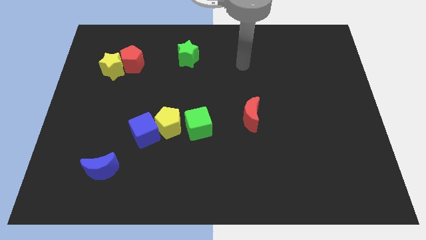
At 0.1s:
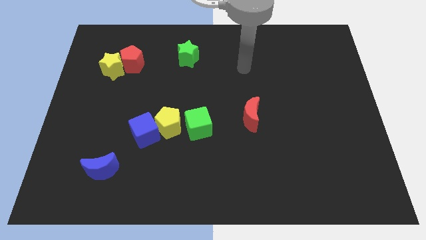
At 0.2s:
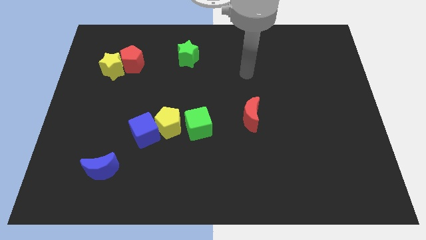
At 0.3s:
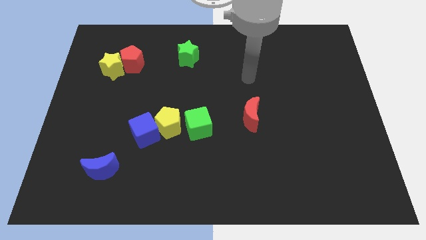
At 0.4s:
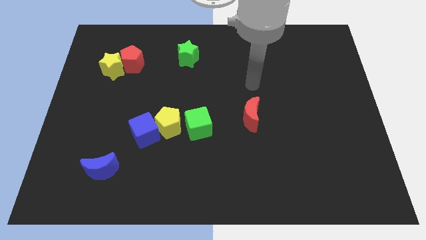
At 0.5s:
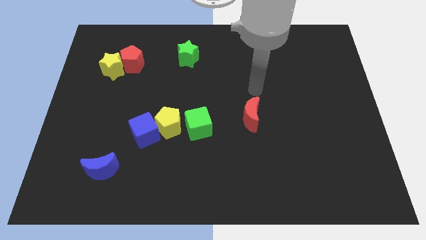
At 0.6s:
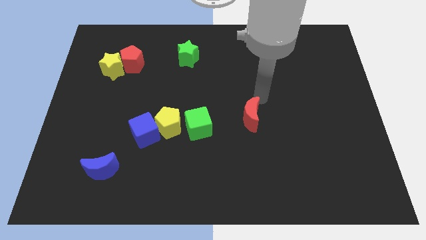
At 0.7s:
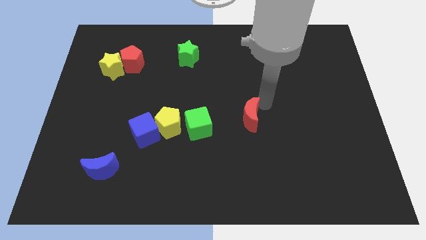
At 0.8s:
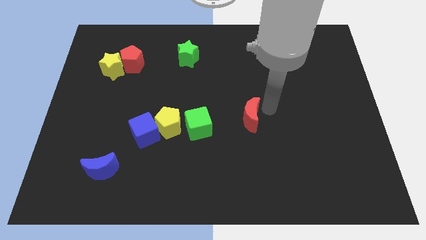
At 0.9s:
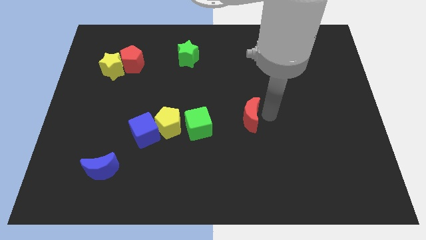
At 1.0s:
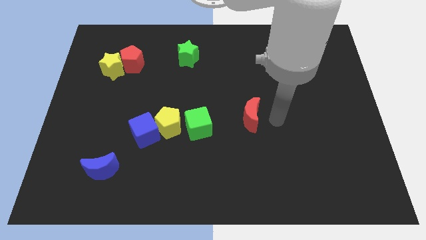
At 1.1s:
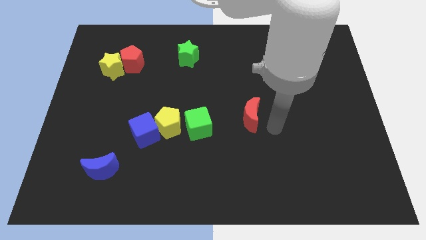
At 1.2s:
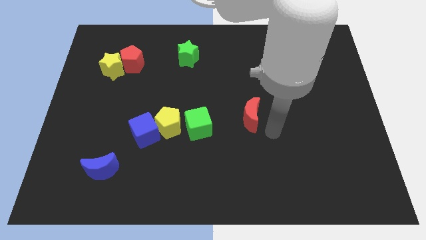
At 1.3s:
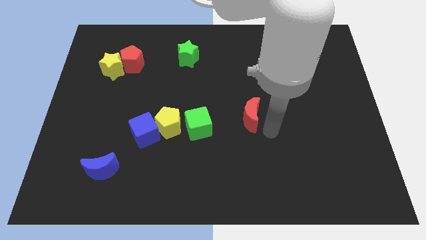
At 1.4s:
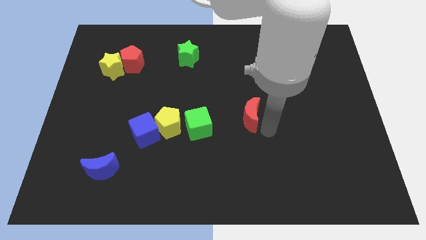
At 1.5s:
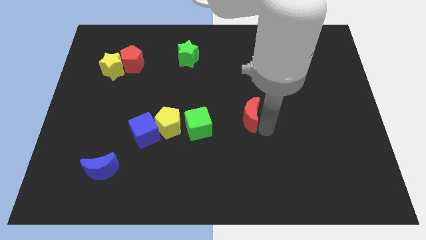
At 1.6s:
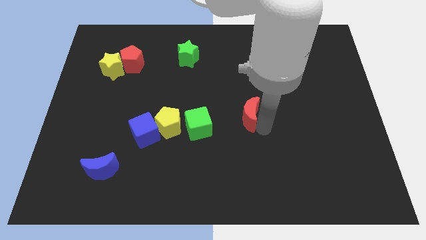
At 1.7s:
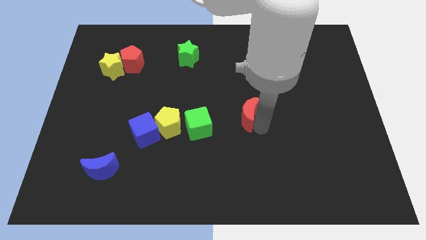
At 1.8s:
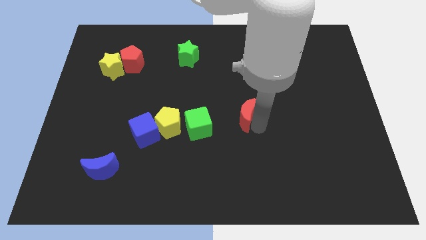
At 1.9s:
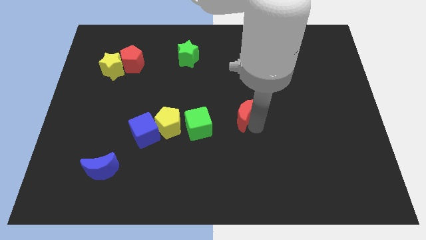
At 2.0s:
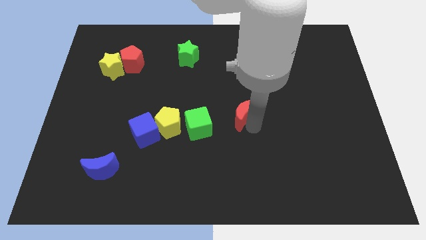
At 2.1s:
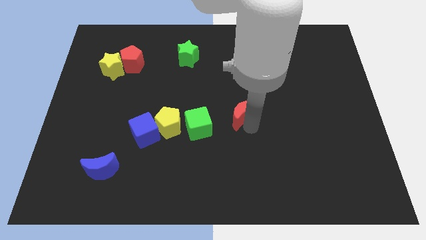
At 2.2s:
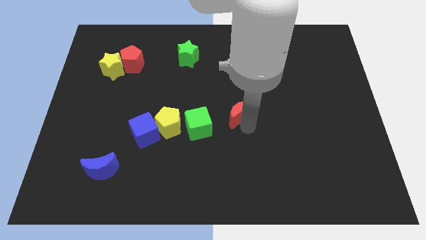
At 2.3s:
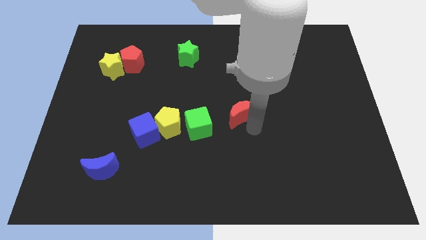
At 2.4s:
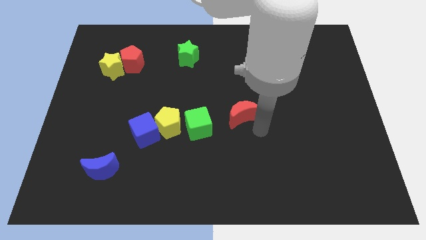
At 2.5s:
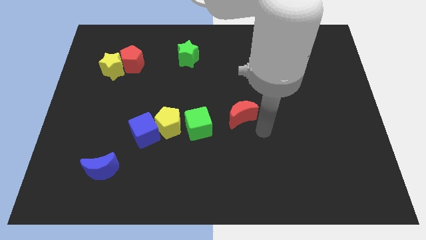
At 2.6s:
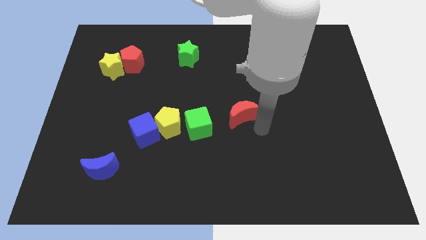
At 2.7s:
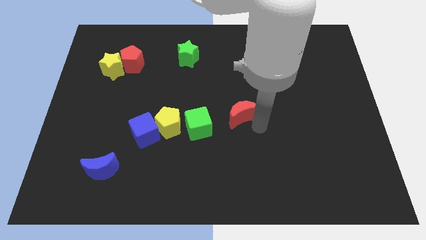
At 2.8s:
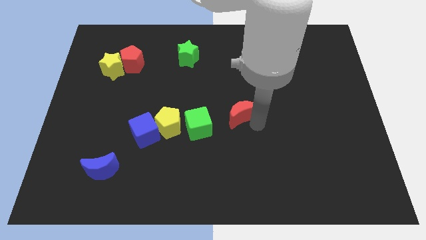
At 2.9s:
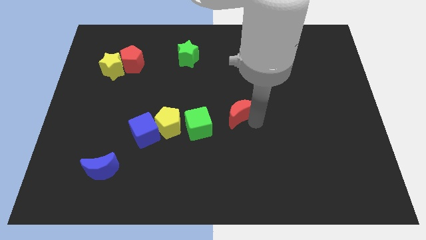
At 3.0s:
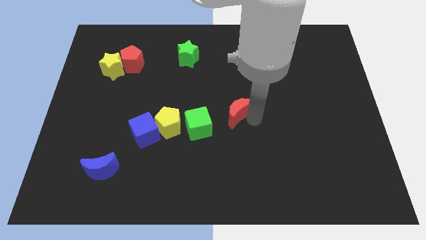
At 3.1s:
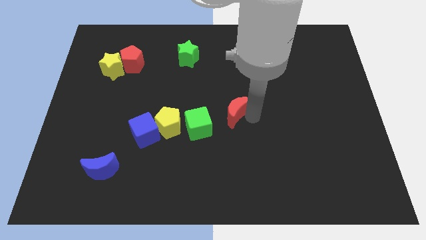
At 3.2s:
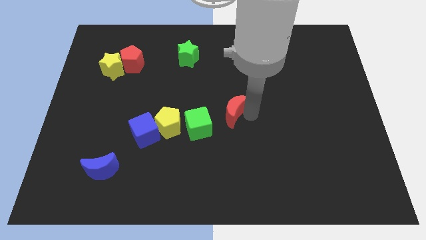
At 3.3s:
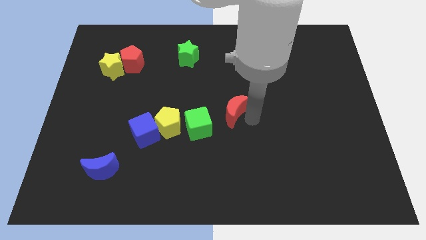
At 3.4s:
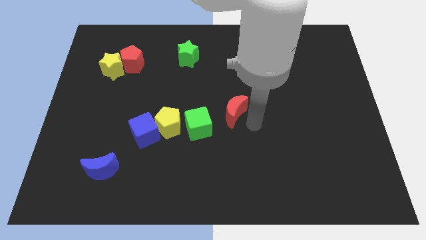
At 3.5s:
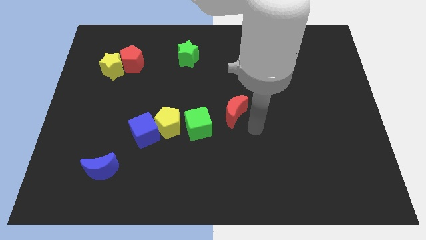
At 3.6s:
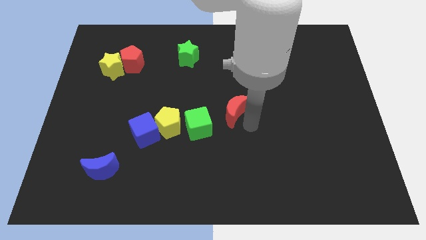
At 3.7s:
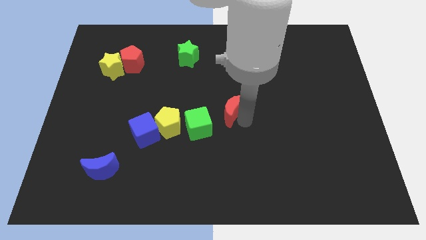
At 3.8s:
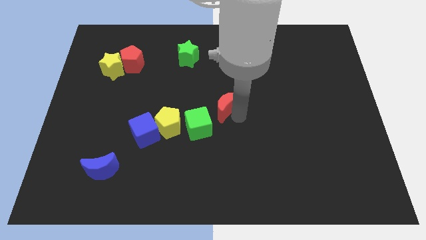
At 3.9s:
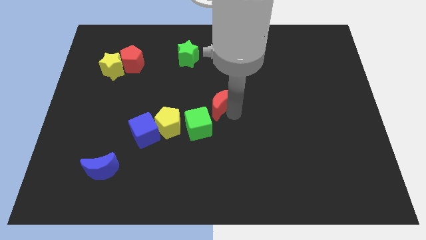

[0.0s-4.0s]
slightly slide the red moon up and then to the left

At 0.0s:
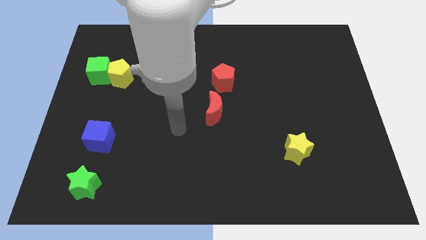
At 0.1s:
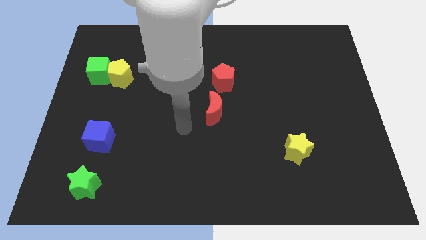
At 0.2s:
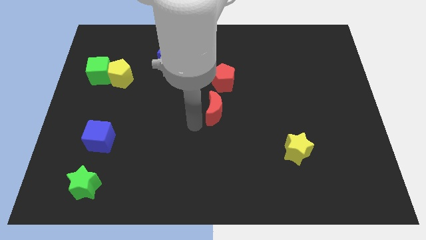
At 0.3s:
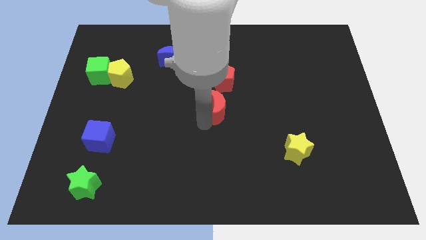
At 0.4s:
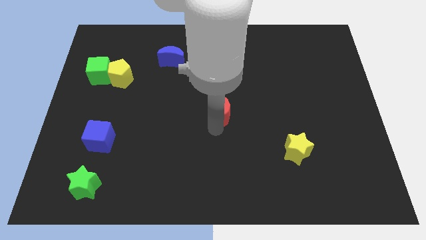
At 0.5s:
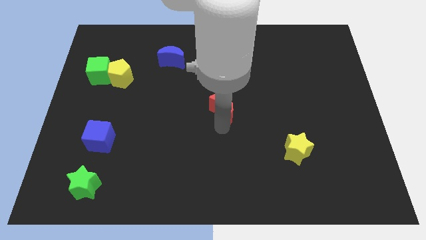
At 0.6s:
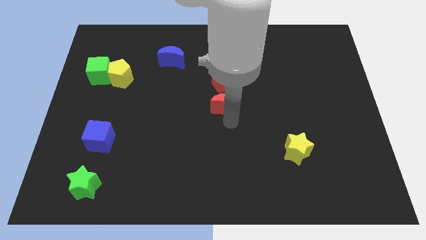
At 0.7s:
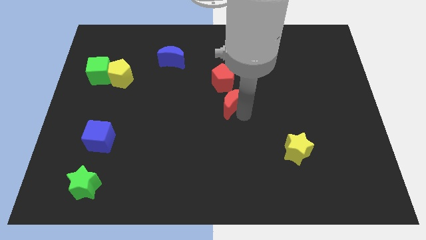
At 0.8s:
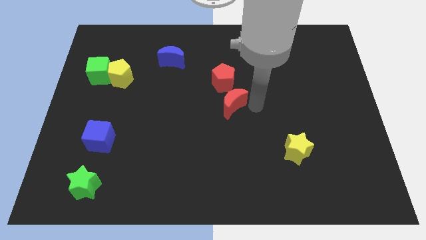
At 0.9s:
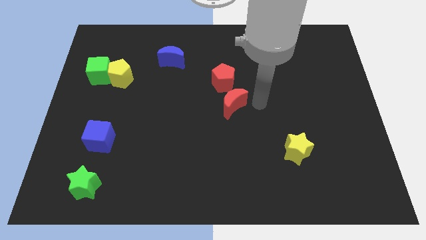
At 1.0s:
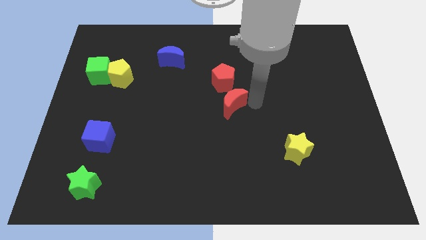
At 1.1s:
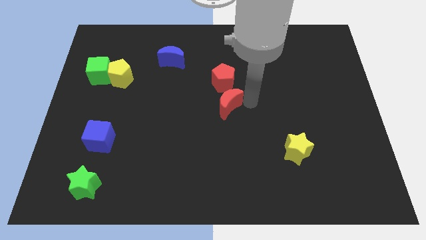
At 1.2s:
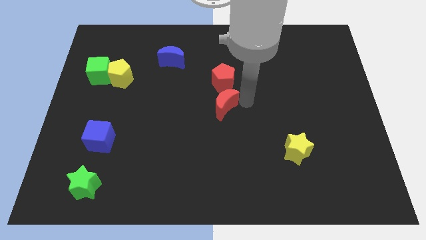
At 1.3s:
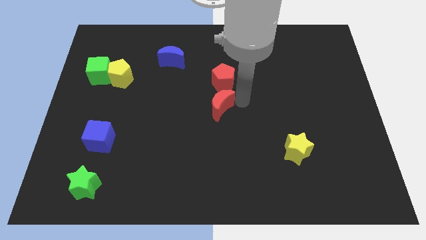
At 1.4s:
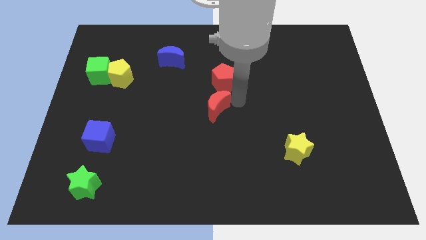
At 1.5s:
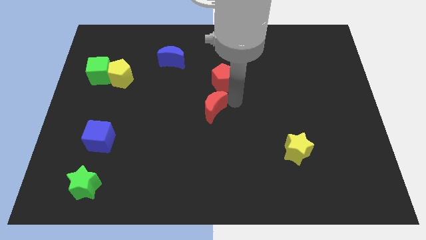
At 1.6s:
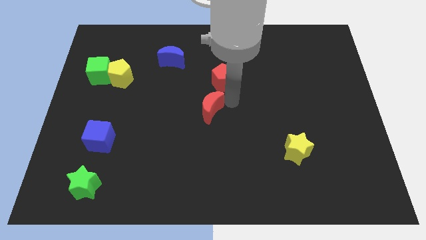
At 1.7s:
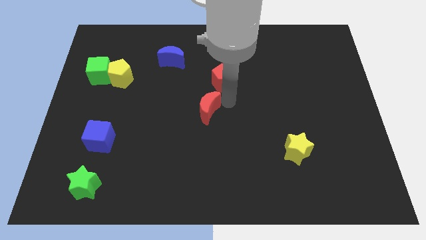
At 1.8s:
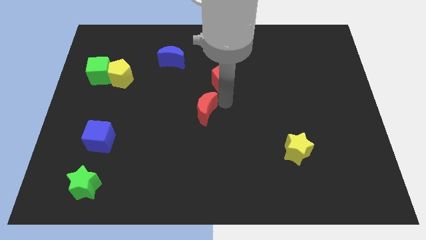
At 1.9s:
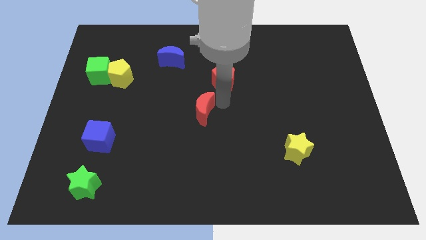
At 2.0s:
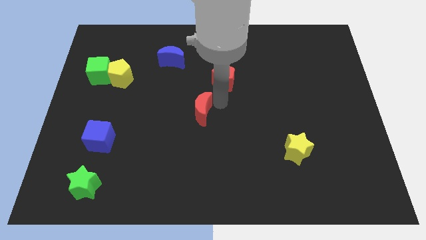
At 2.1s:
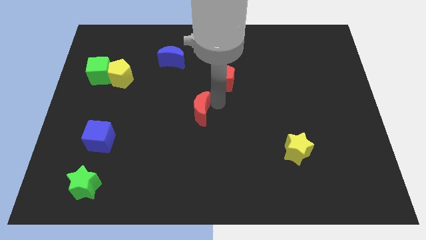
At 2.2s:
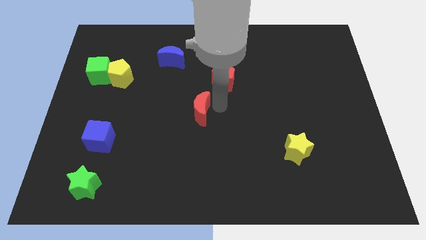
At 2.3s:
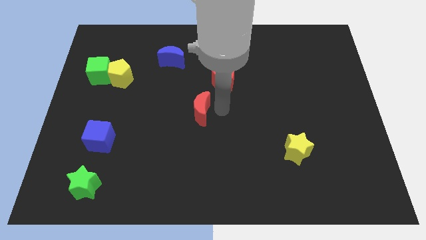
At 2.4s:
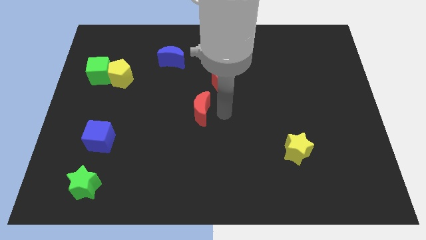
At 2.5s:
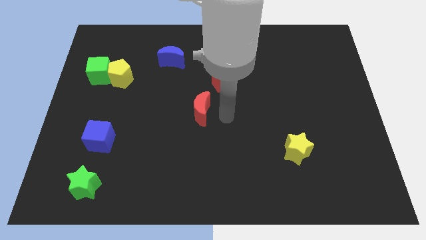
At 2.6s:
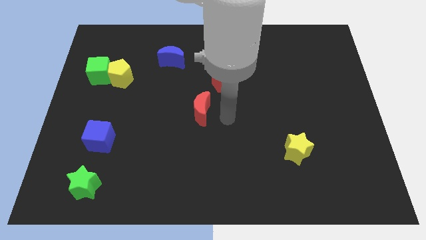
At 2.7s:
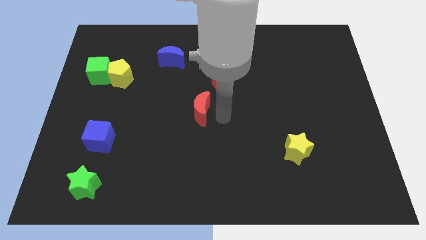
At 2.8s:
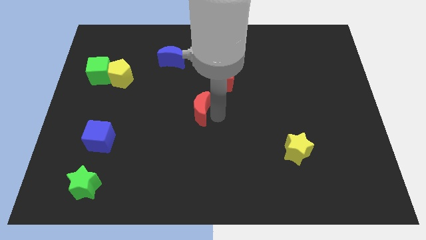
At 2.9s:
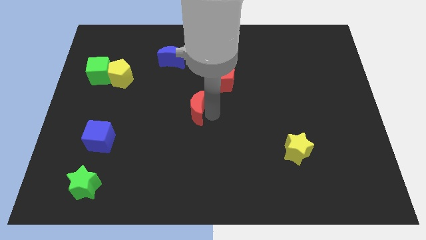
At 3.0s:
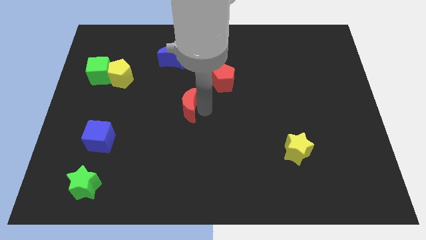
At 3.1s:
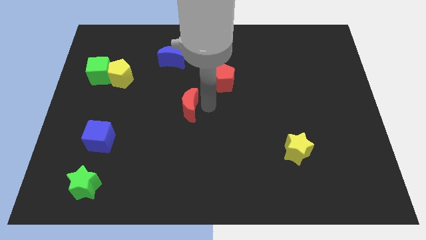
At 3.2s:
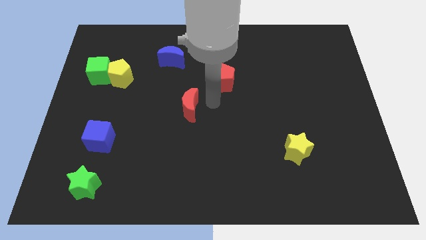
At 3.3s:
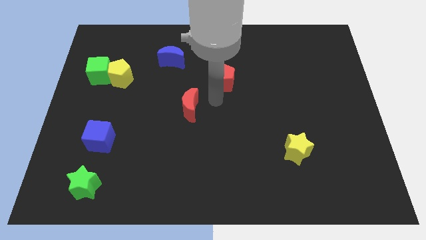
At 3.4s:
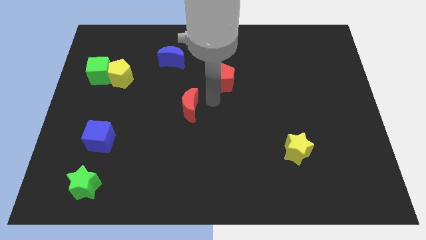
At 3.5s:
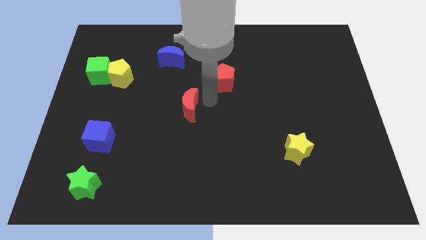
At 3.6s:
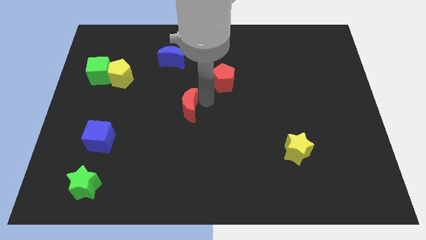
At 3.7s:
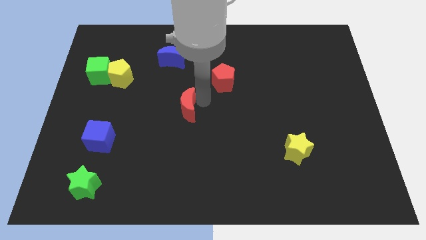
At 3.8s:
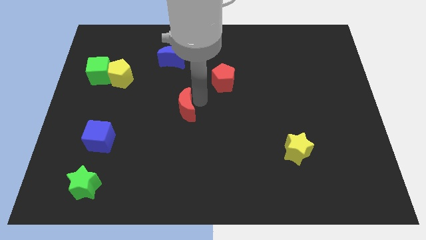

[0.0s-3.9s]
slide the red moon to the left a little
